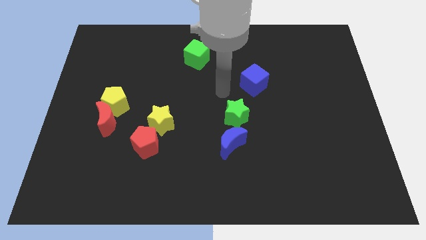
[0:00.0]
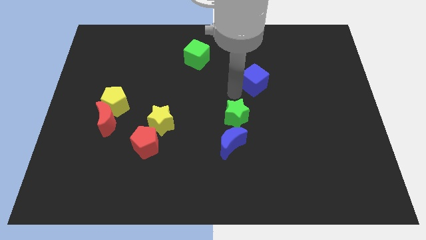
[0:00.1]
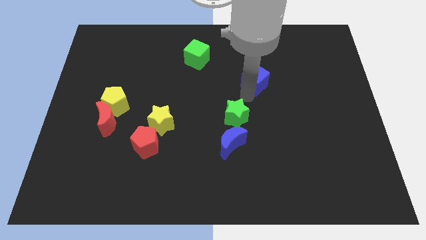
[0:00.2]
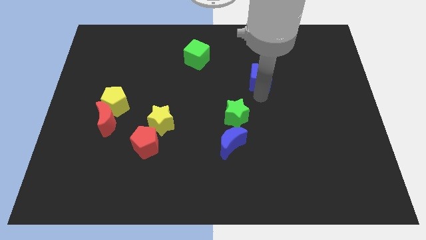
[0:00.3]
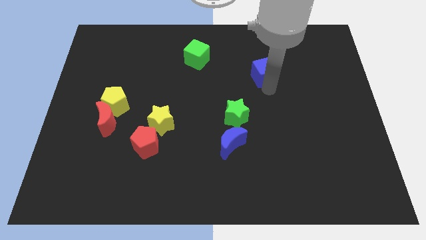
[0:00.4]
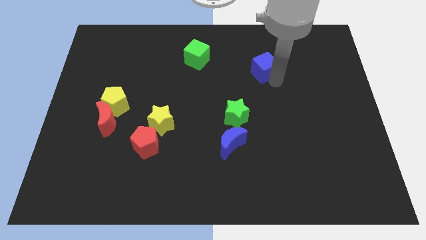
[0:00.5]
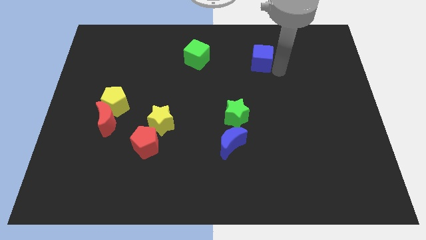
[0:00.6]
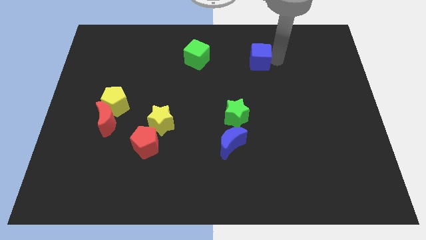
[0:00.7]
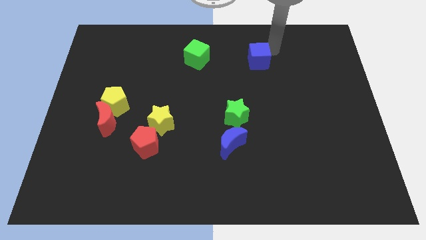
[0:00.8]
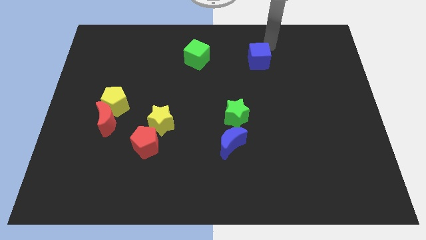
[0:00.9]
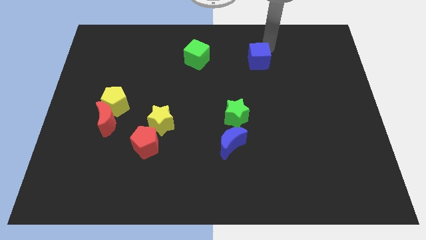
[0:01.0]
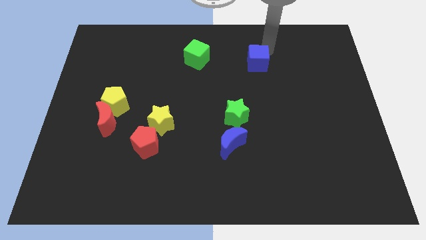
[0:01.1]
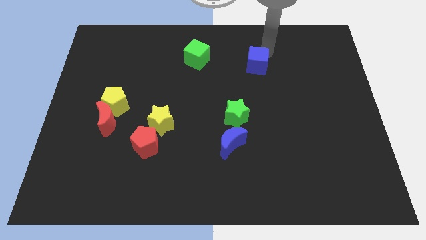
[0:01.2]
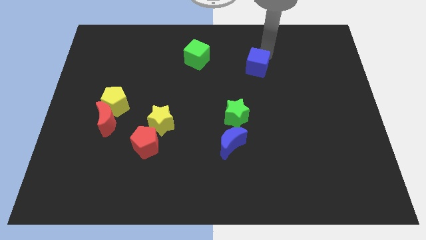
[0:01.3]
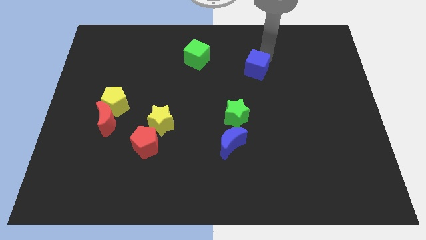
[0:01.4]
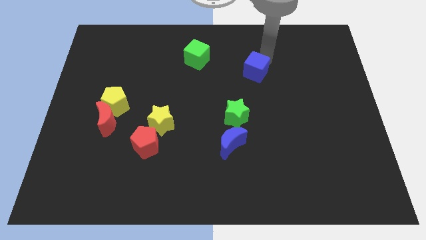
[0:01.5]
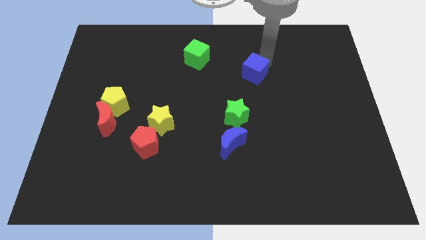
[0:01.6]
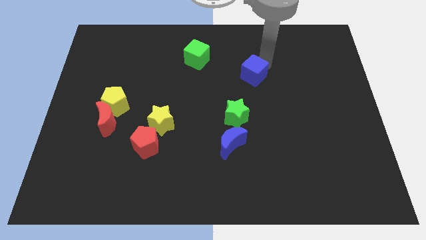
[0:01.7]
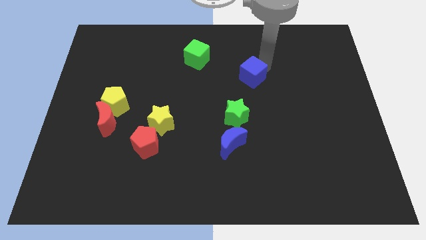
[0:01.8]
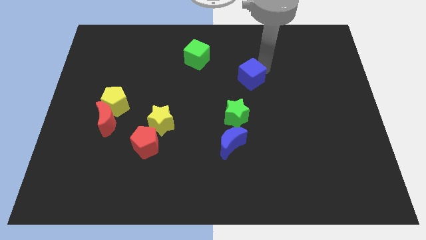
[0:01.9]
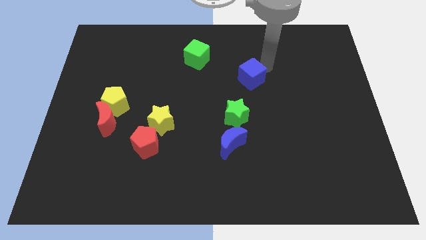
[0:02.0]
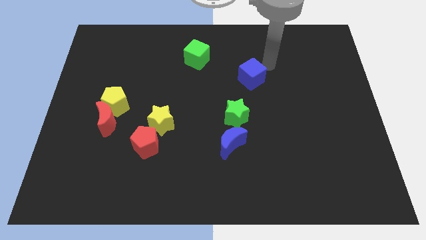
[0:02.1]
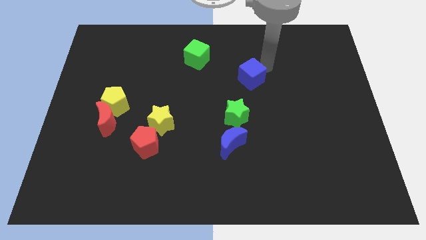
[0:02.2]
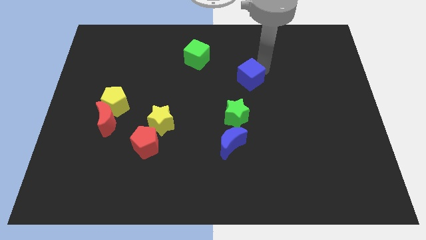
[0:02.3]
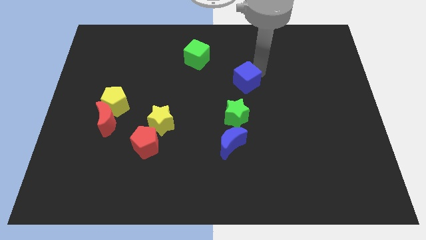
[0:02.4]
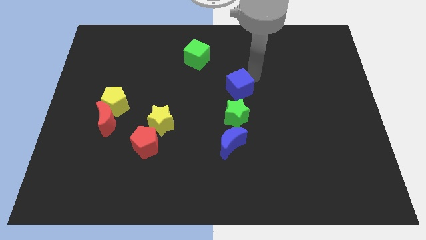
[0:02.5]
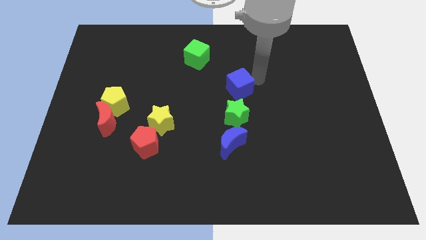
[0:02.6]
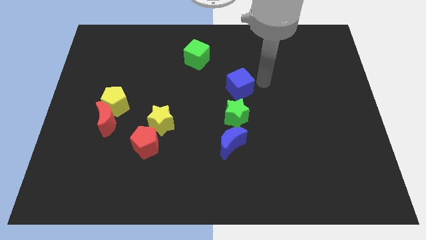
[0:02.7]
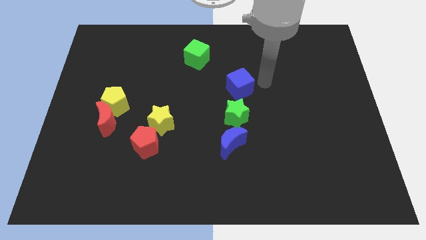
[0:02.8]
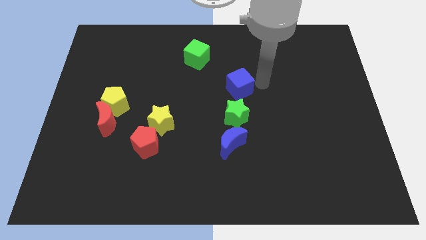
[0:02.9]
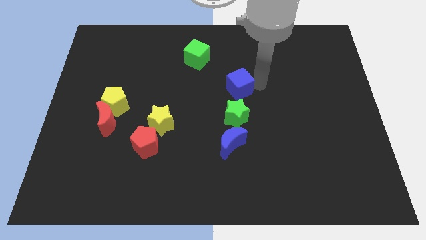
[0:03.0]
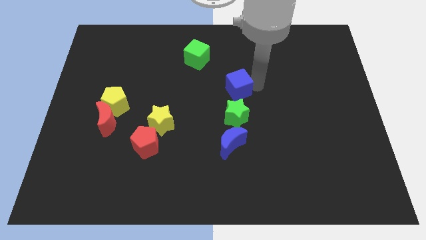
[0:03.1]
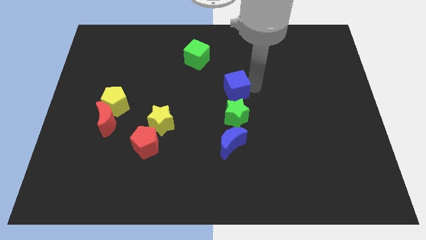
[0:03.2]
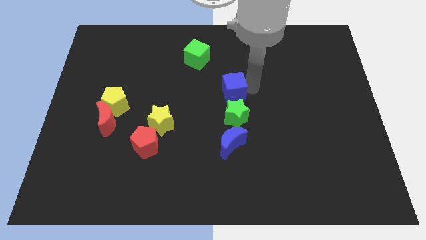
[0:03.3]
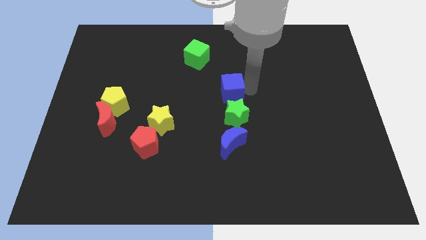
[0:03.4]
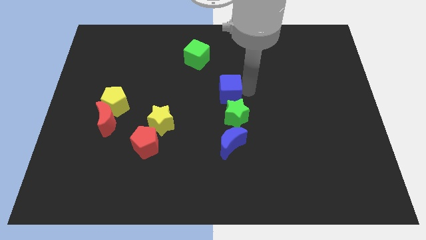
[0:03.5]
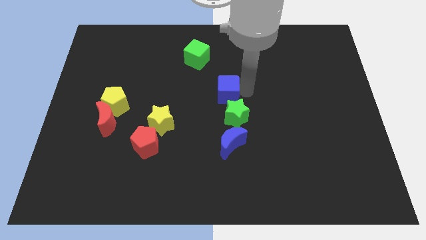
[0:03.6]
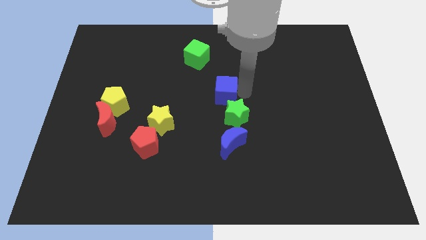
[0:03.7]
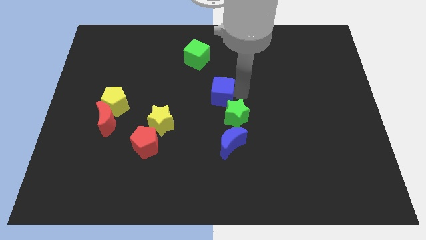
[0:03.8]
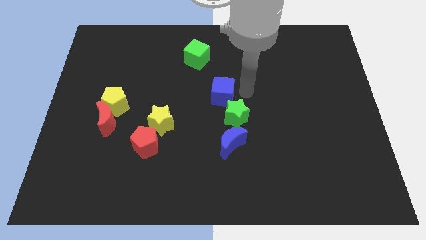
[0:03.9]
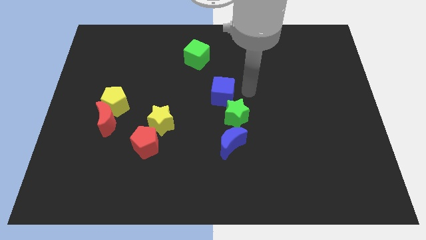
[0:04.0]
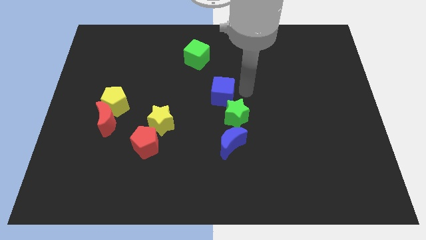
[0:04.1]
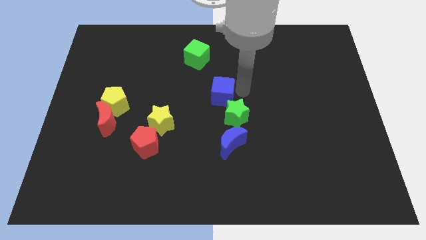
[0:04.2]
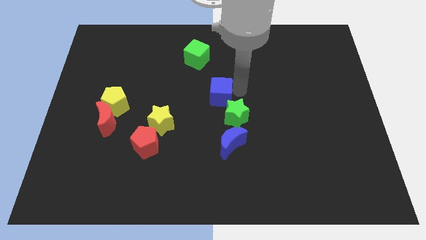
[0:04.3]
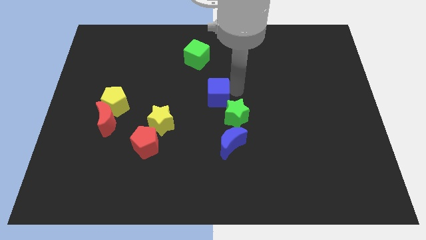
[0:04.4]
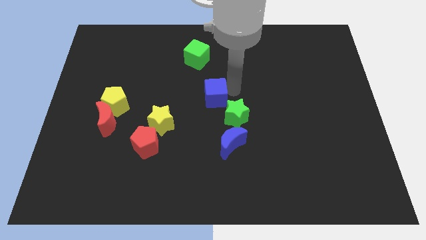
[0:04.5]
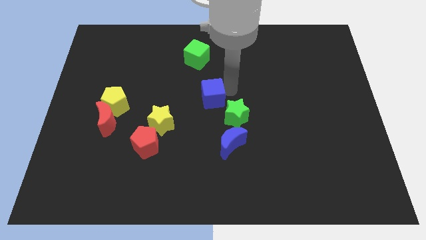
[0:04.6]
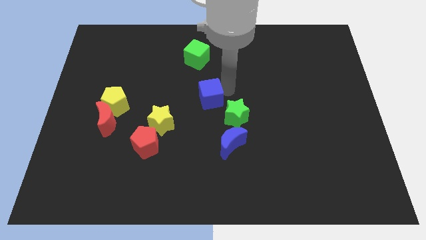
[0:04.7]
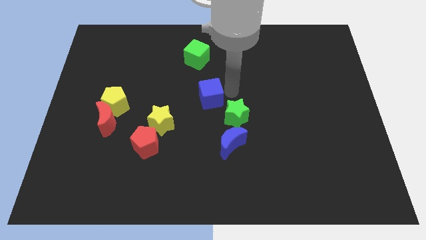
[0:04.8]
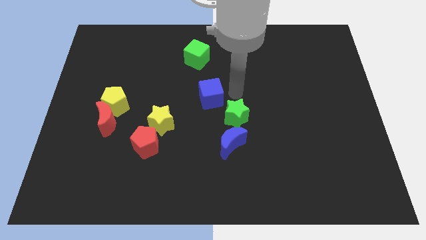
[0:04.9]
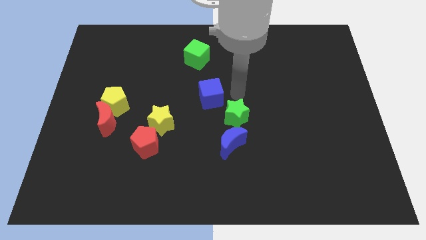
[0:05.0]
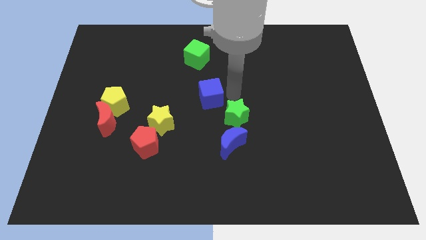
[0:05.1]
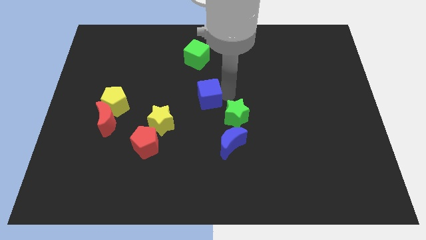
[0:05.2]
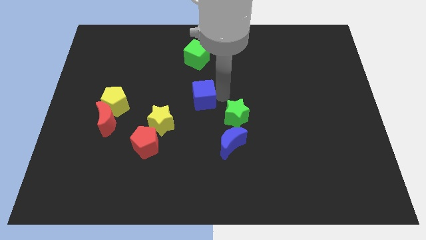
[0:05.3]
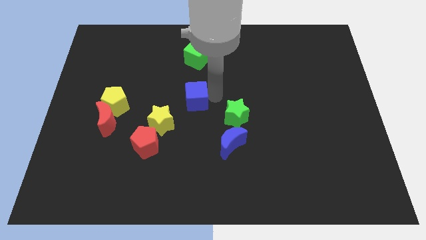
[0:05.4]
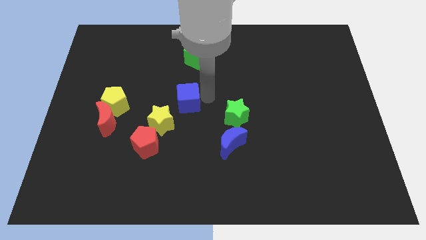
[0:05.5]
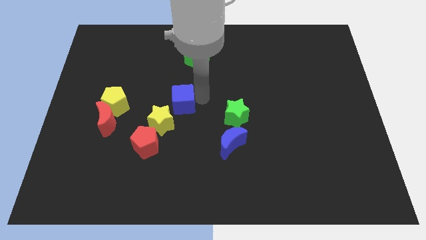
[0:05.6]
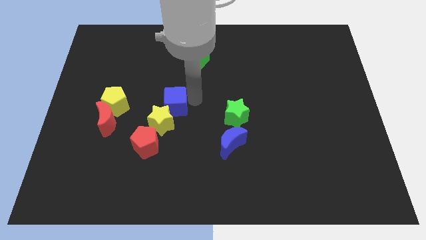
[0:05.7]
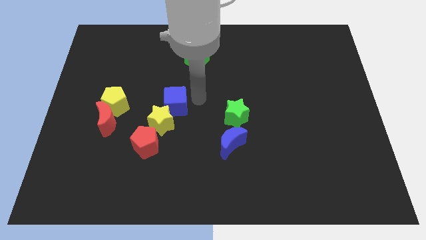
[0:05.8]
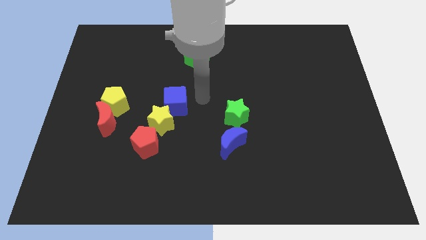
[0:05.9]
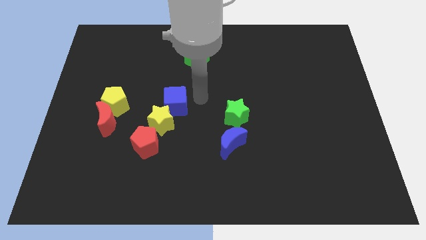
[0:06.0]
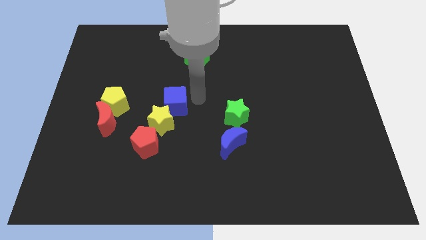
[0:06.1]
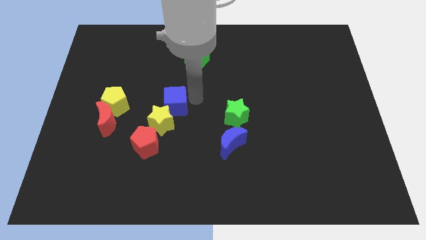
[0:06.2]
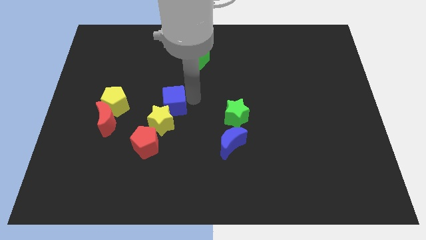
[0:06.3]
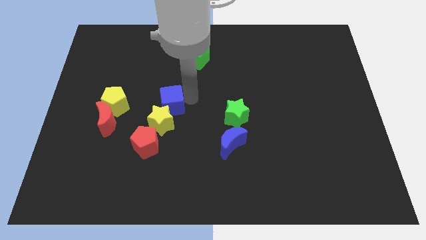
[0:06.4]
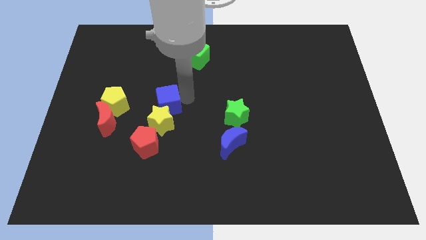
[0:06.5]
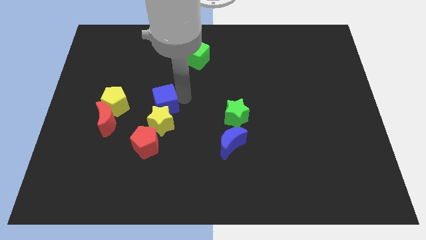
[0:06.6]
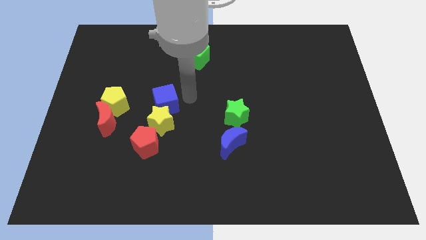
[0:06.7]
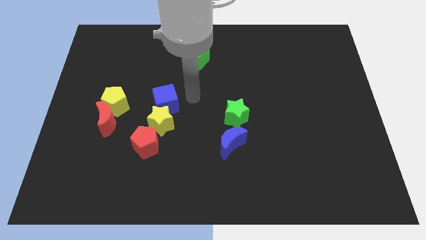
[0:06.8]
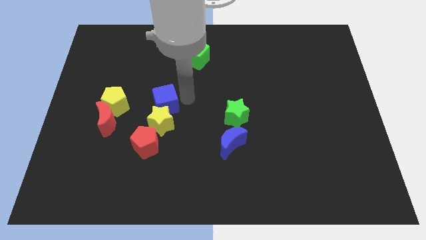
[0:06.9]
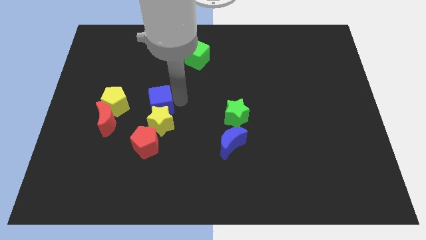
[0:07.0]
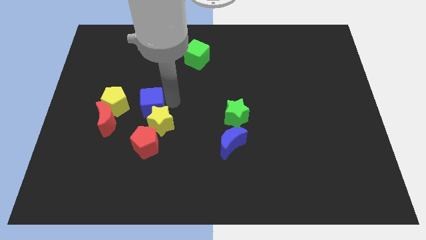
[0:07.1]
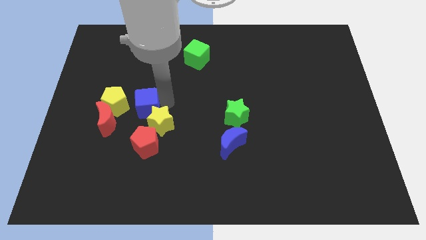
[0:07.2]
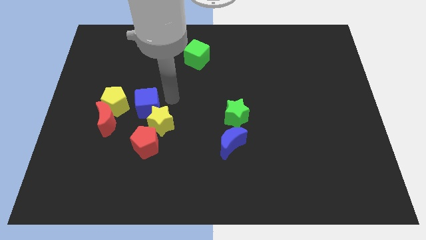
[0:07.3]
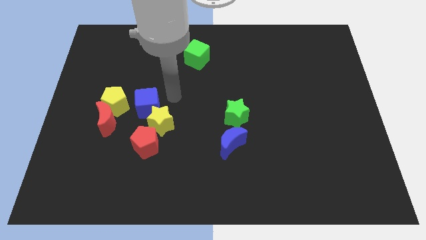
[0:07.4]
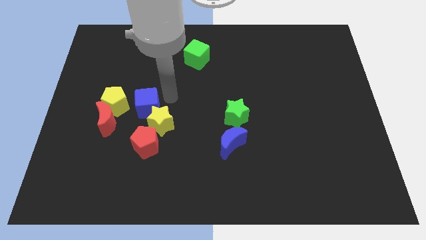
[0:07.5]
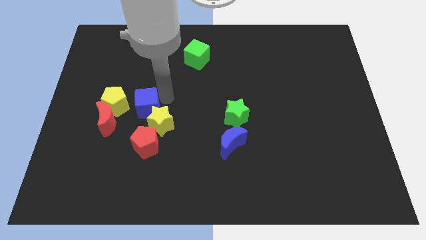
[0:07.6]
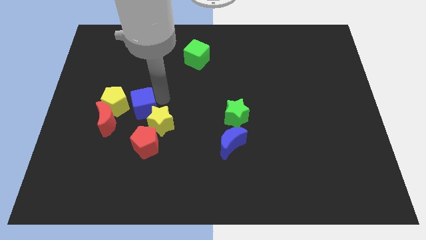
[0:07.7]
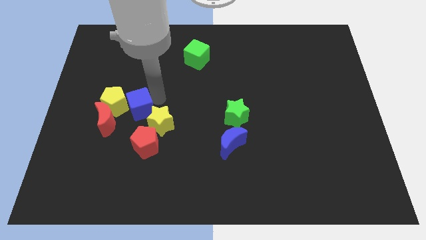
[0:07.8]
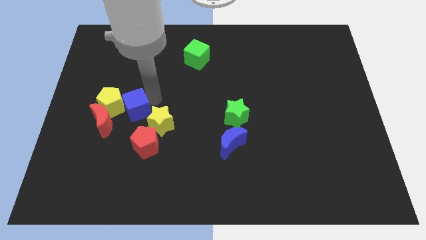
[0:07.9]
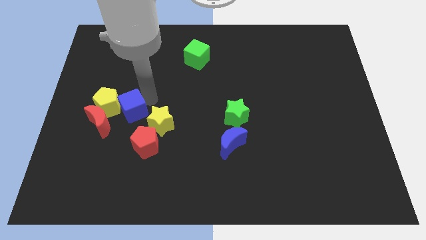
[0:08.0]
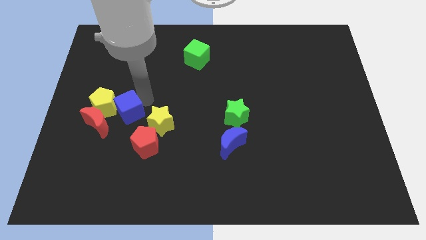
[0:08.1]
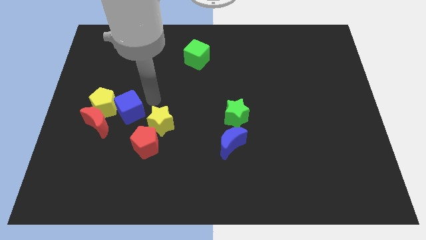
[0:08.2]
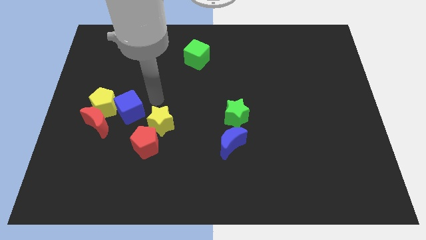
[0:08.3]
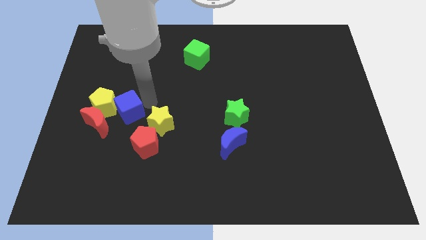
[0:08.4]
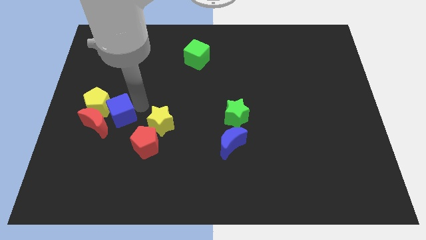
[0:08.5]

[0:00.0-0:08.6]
push the blue cube next to the red moon
